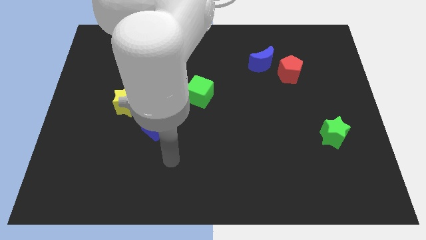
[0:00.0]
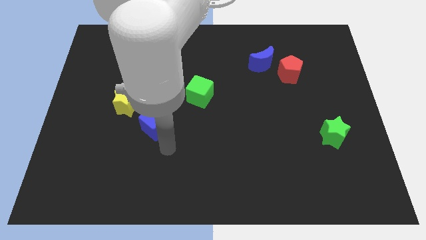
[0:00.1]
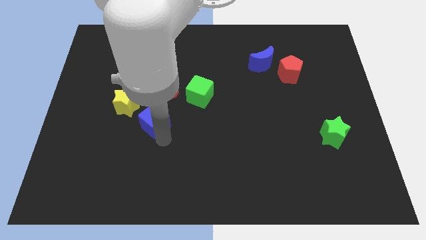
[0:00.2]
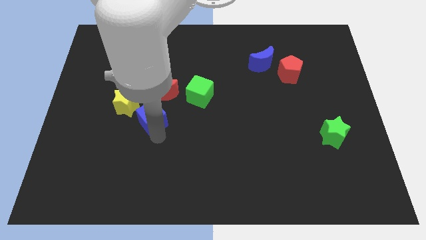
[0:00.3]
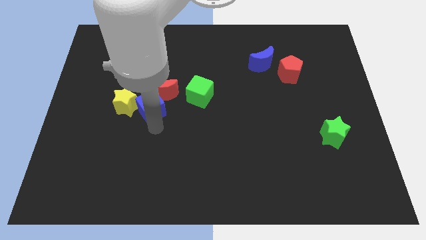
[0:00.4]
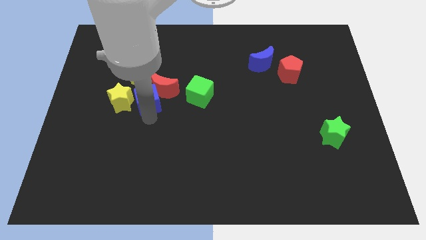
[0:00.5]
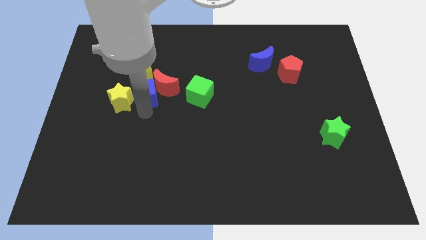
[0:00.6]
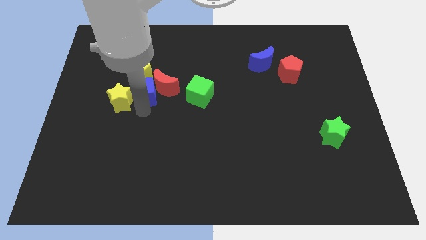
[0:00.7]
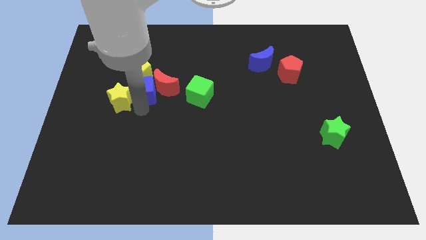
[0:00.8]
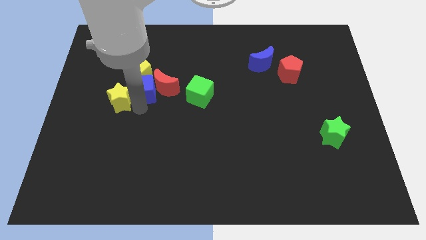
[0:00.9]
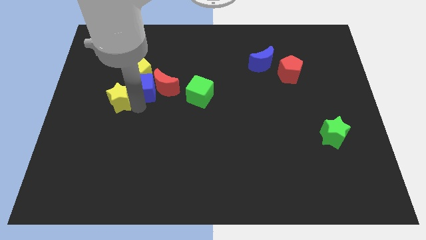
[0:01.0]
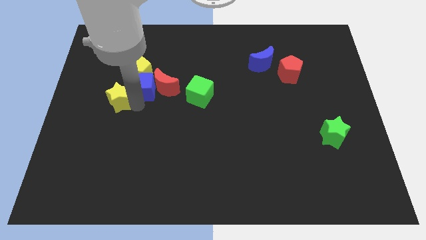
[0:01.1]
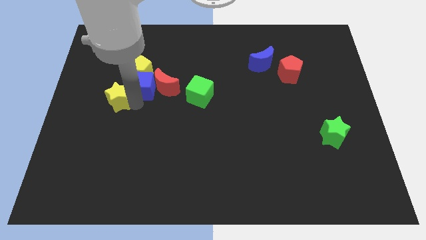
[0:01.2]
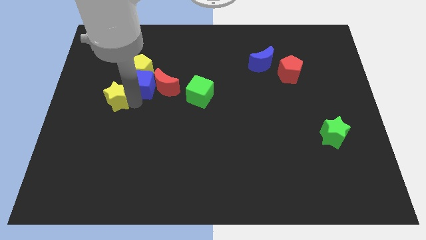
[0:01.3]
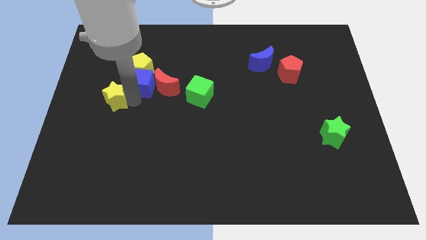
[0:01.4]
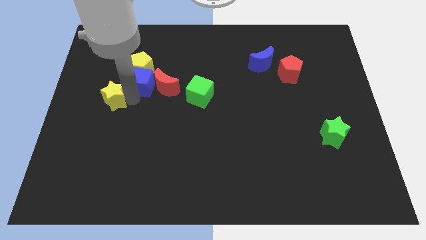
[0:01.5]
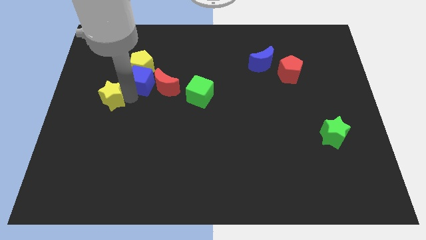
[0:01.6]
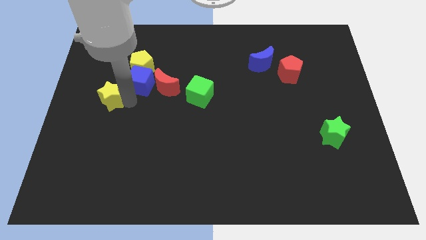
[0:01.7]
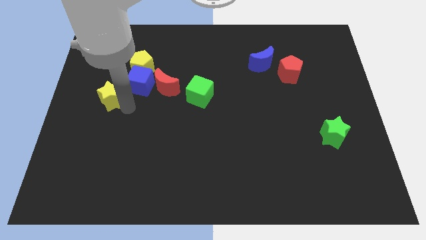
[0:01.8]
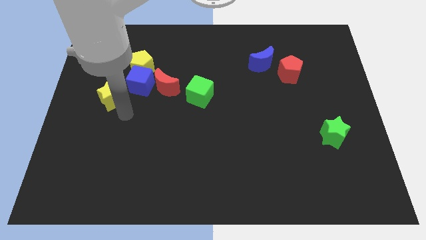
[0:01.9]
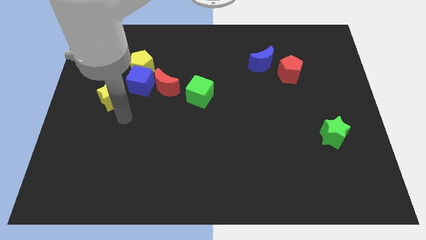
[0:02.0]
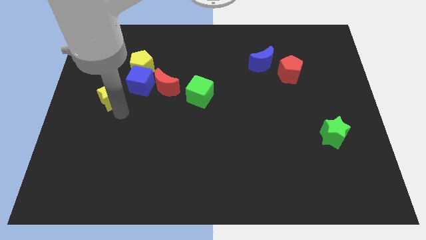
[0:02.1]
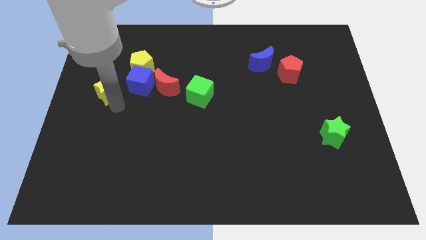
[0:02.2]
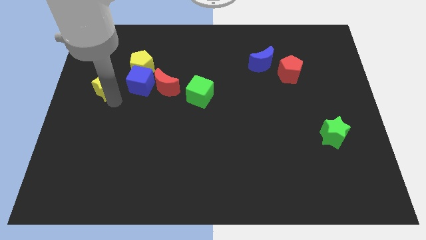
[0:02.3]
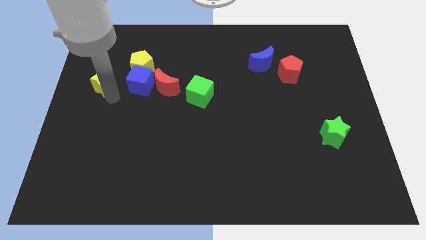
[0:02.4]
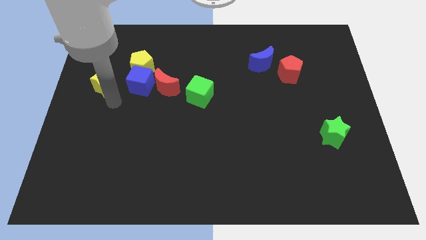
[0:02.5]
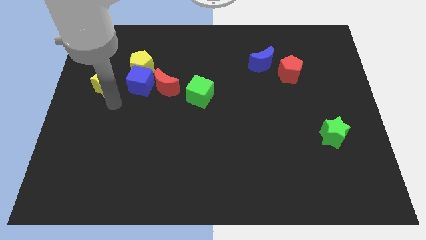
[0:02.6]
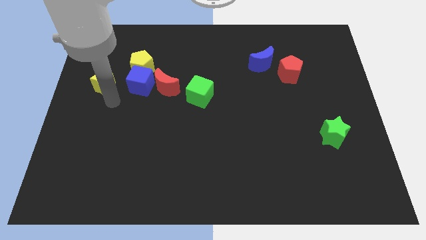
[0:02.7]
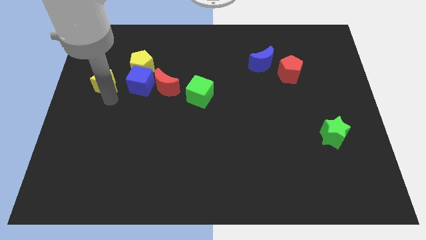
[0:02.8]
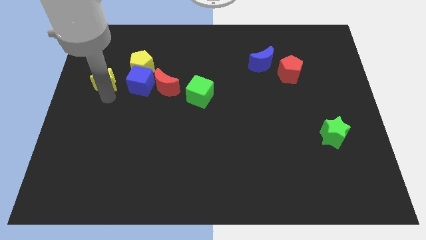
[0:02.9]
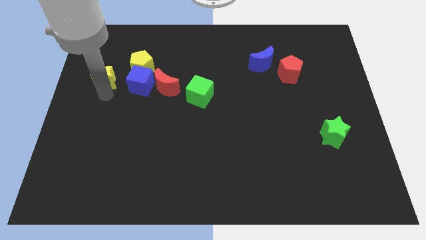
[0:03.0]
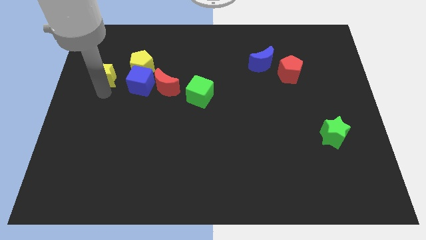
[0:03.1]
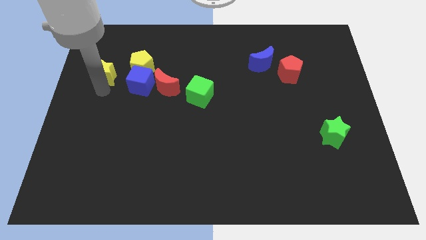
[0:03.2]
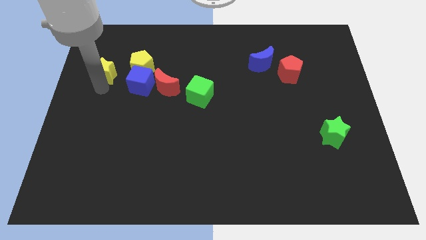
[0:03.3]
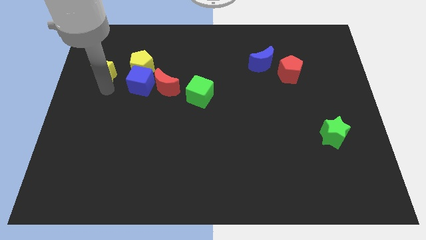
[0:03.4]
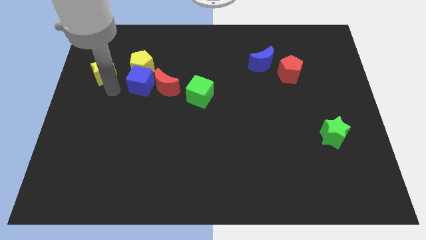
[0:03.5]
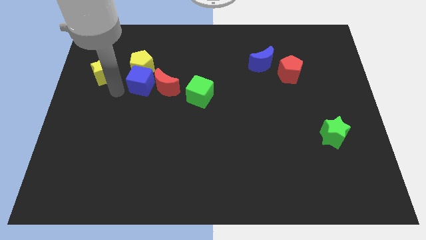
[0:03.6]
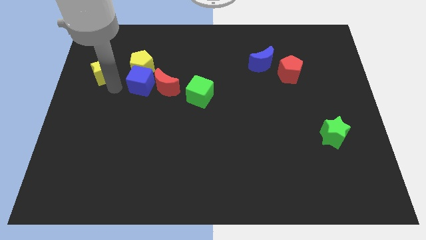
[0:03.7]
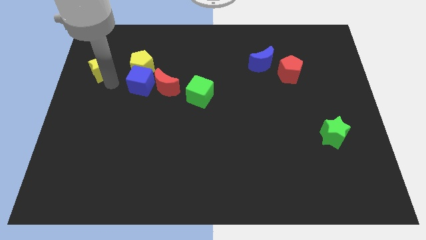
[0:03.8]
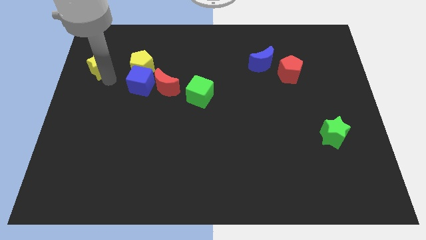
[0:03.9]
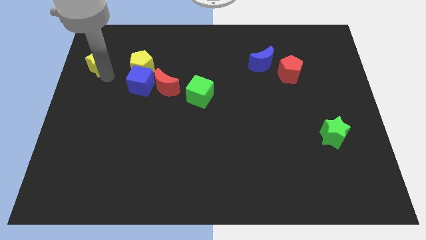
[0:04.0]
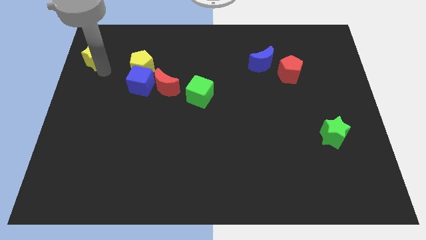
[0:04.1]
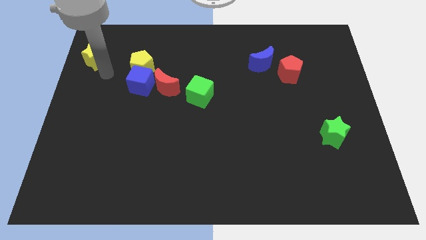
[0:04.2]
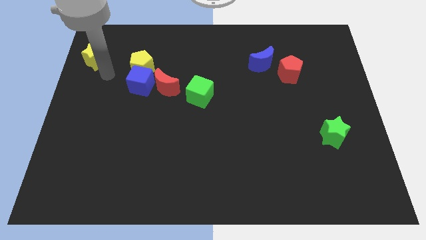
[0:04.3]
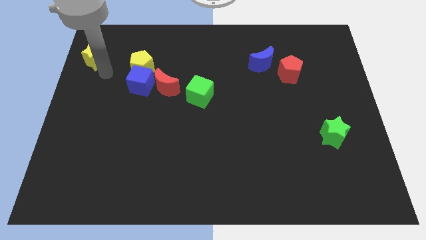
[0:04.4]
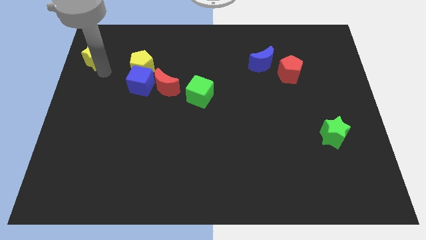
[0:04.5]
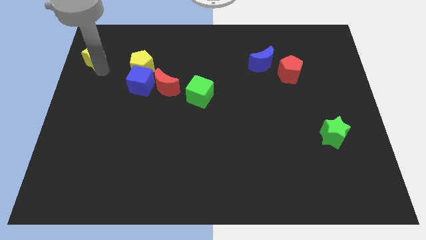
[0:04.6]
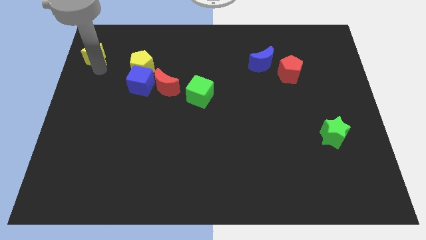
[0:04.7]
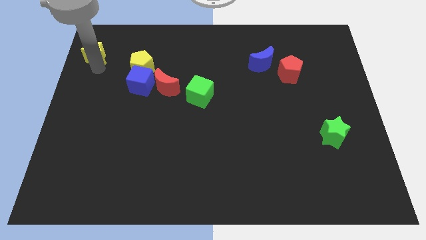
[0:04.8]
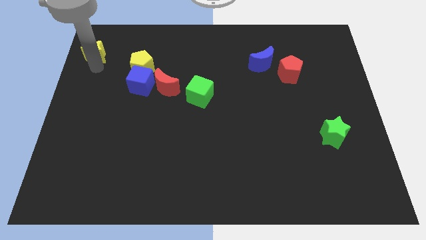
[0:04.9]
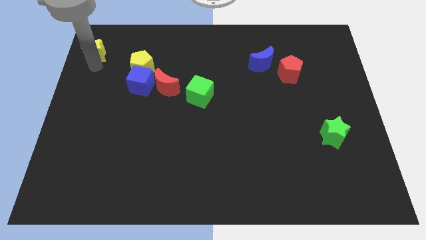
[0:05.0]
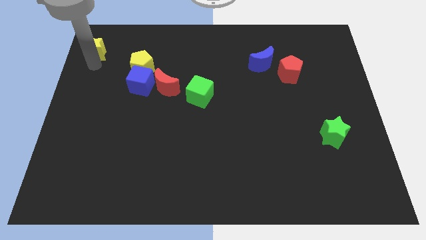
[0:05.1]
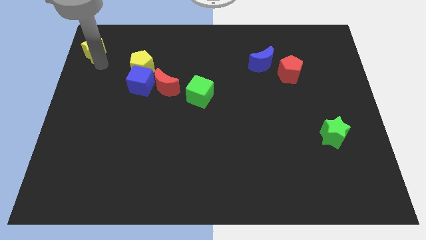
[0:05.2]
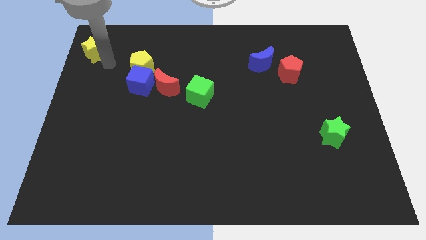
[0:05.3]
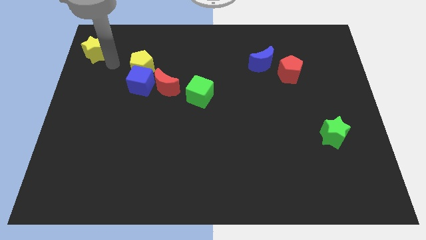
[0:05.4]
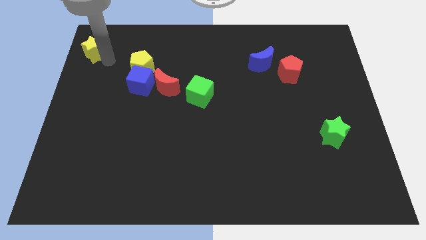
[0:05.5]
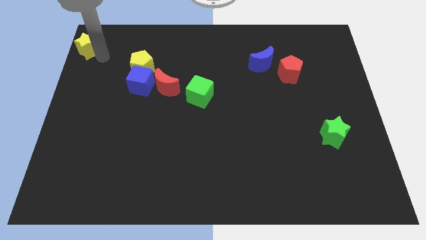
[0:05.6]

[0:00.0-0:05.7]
move the yellow star to the top left corner
